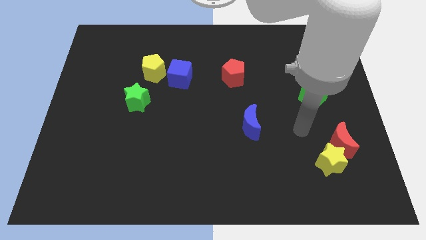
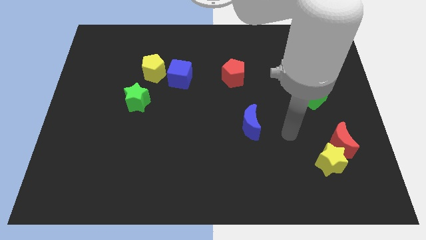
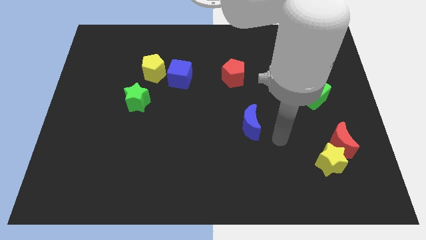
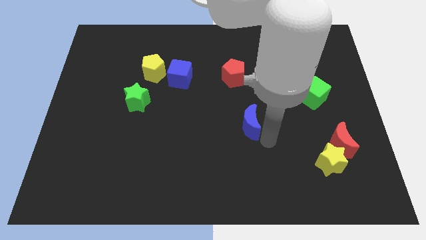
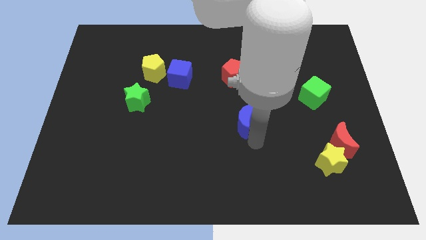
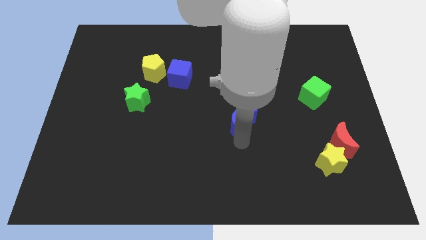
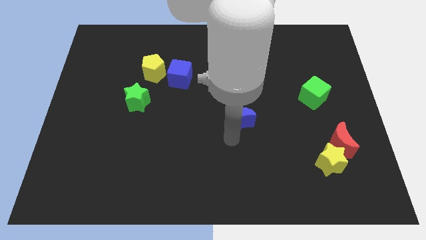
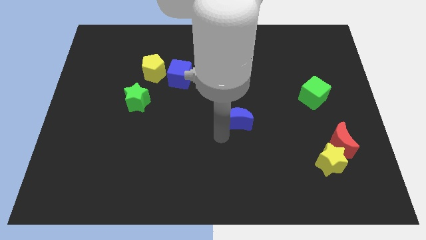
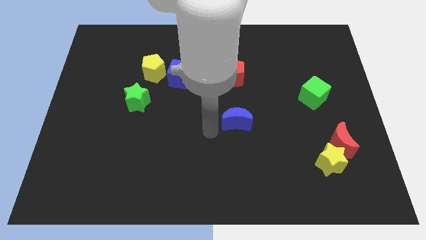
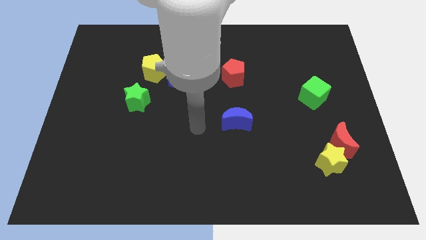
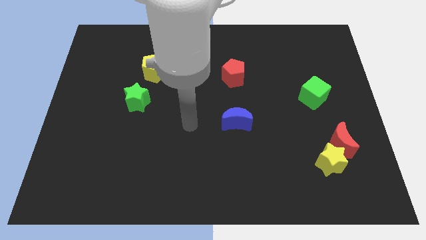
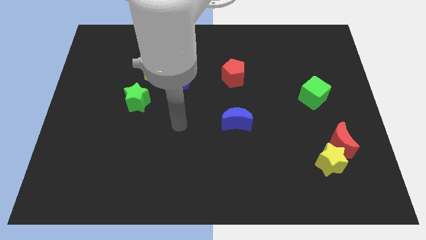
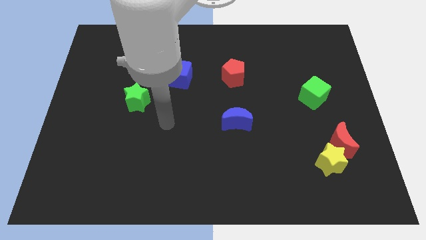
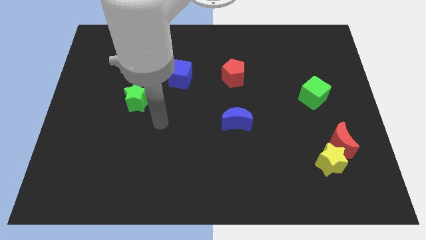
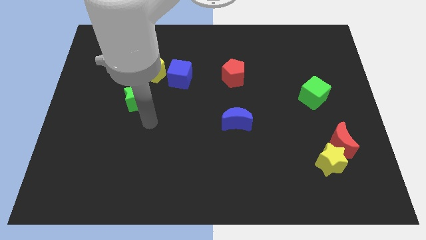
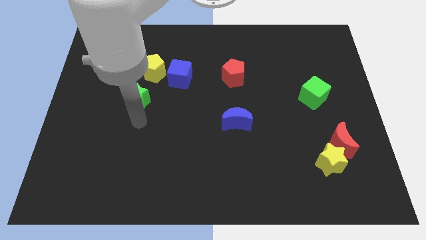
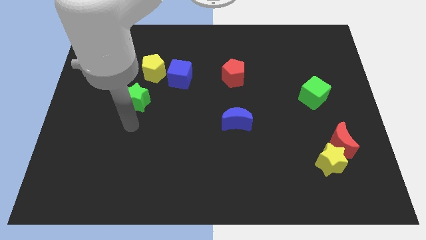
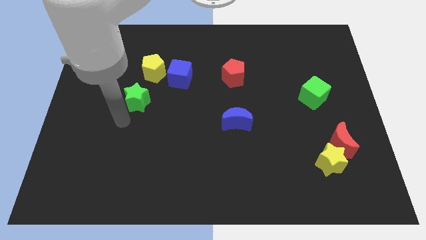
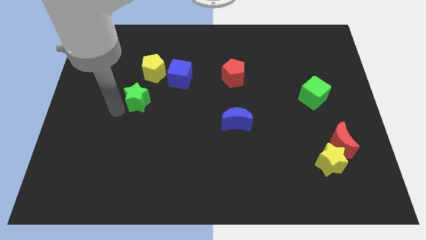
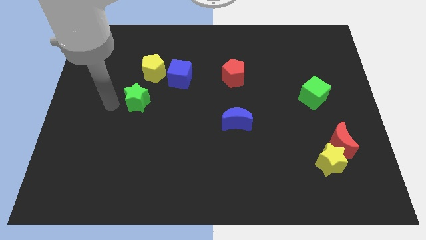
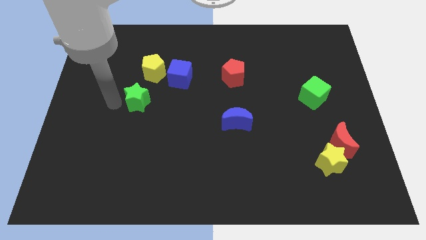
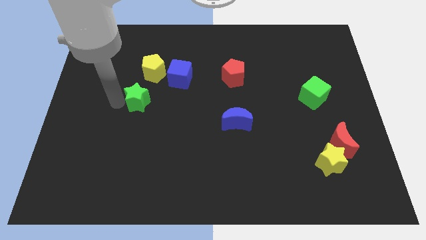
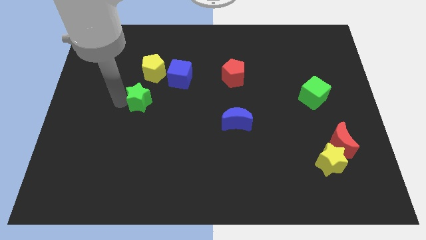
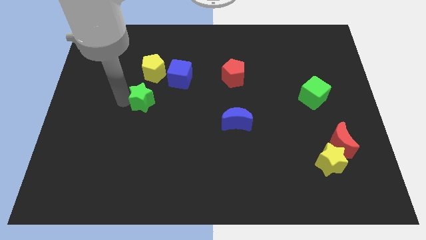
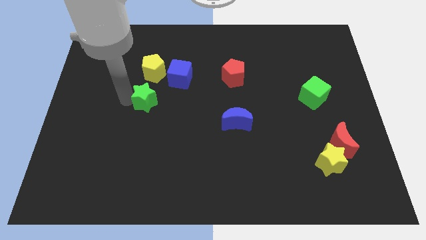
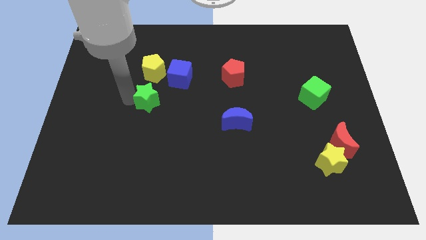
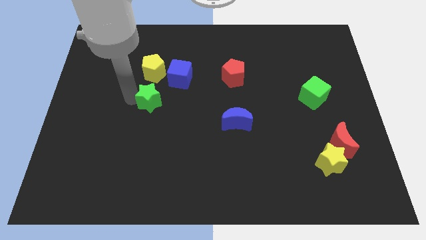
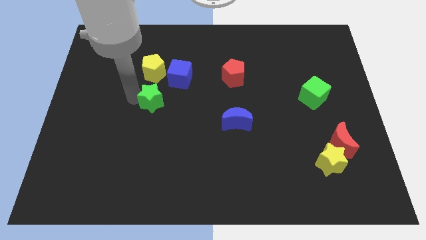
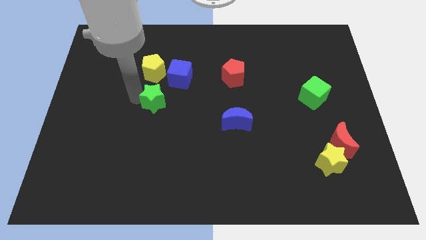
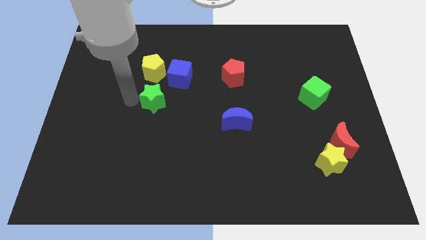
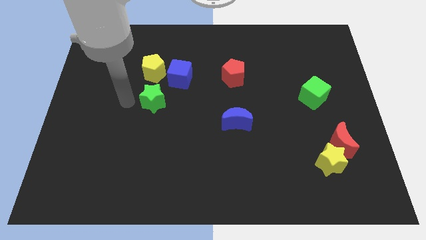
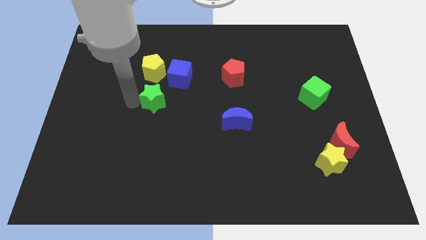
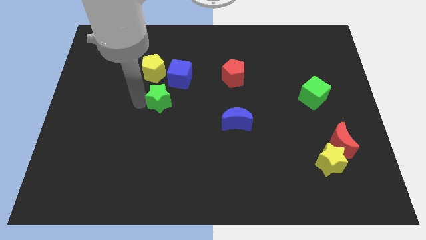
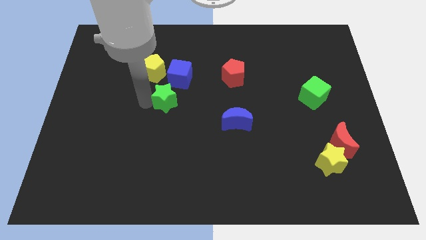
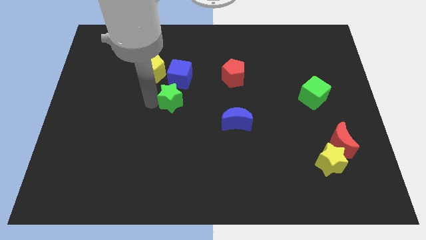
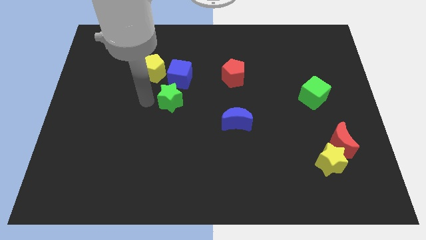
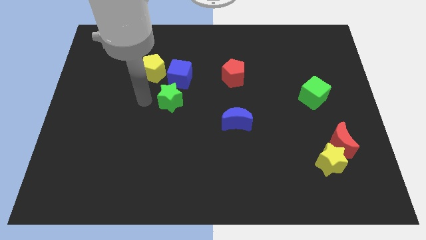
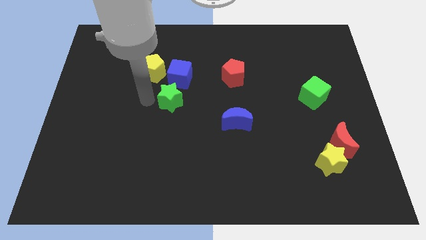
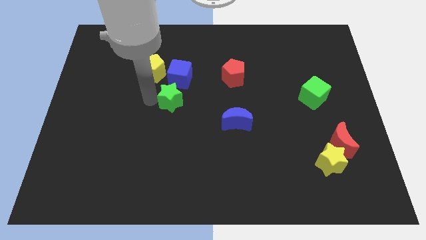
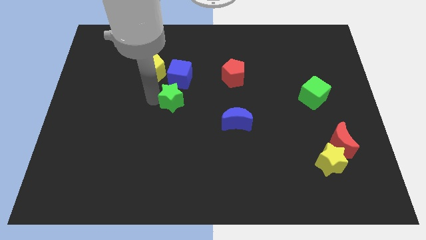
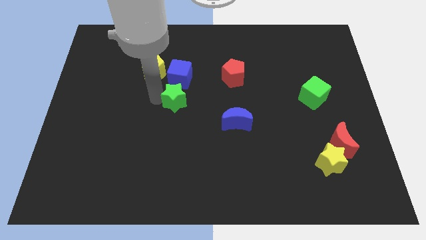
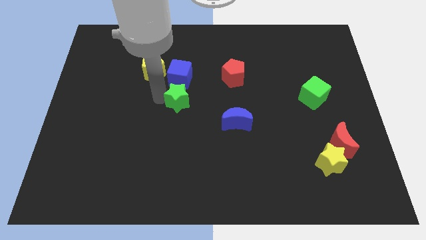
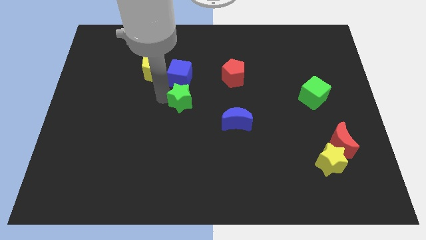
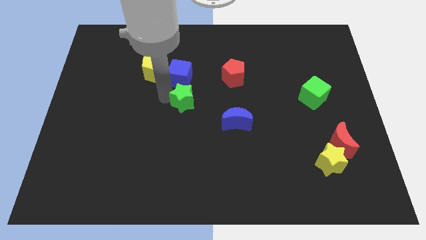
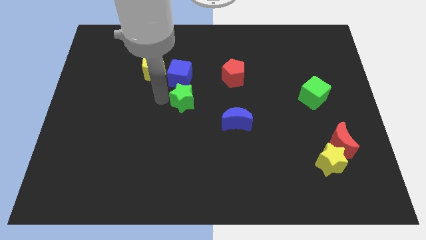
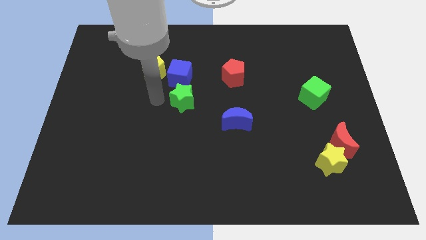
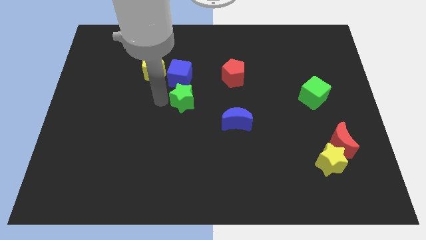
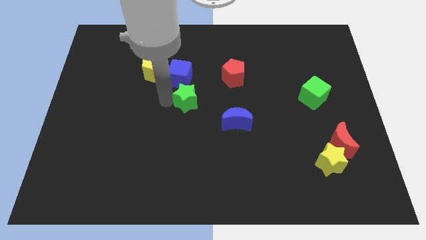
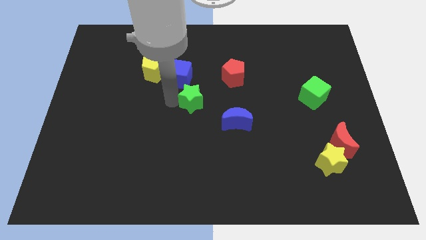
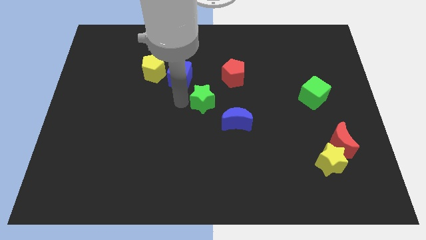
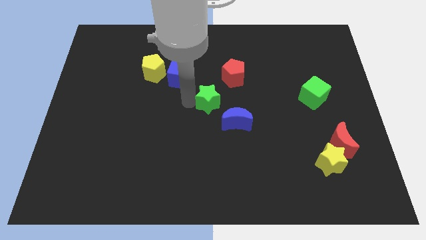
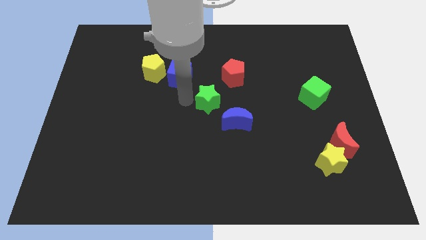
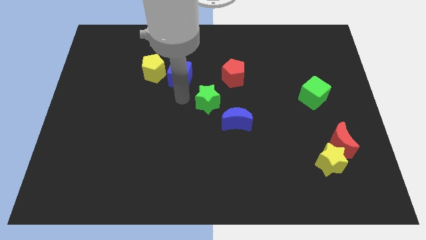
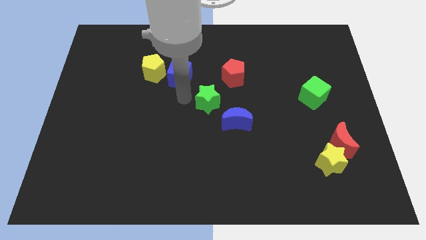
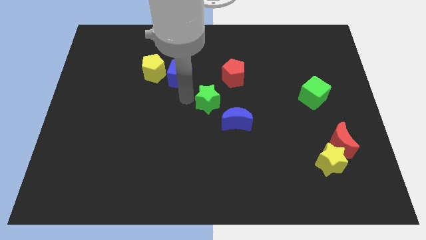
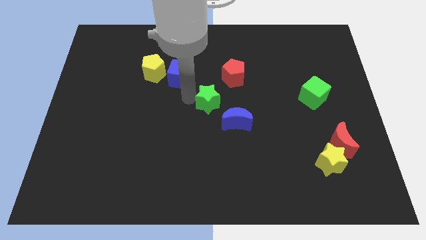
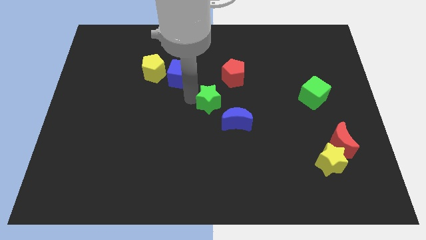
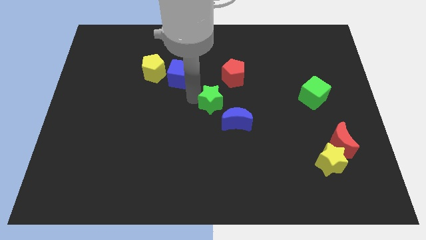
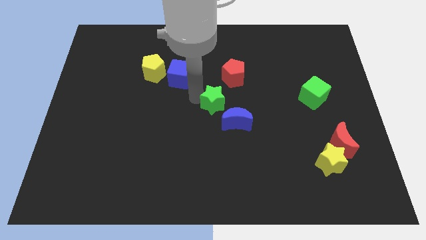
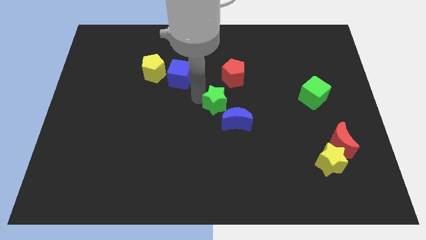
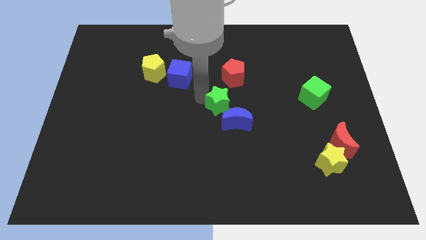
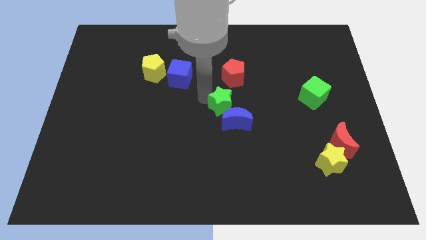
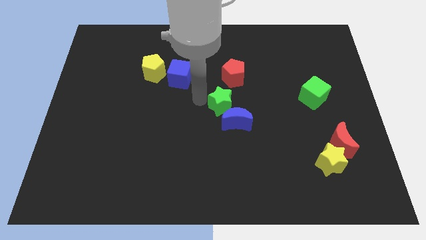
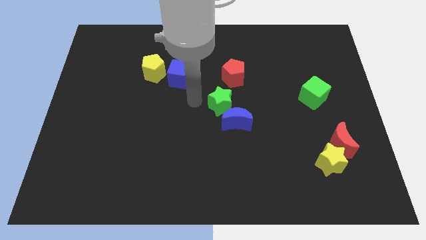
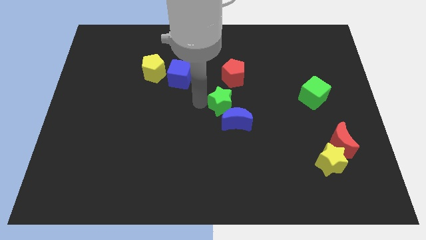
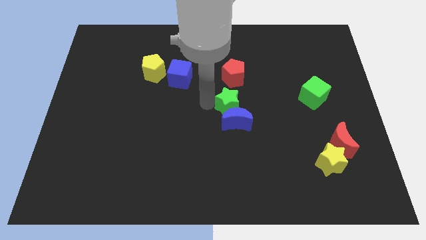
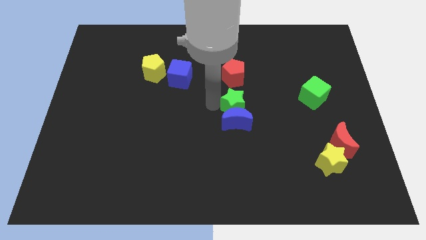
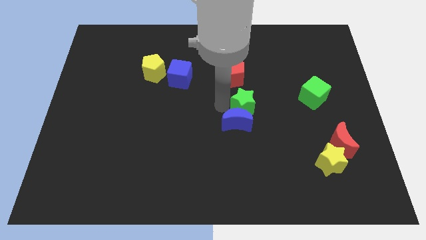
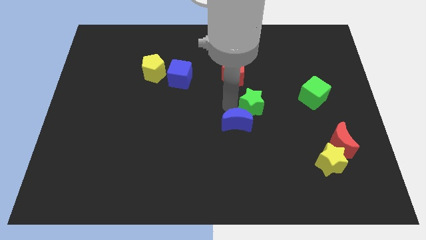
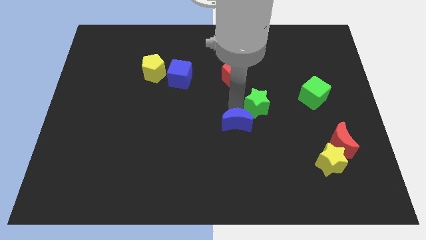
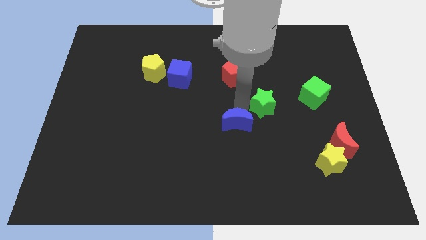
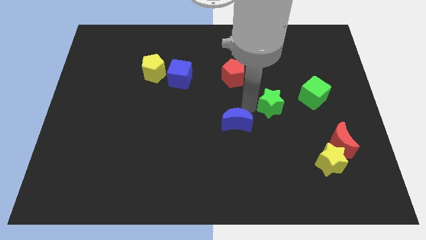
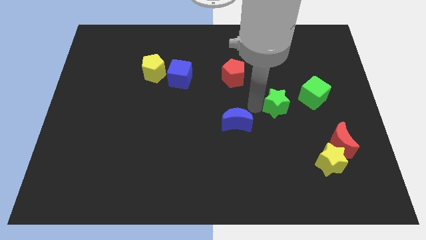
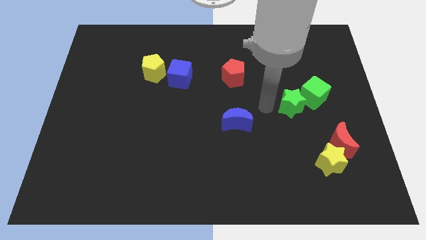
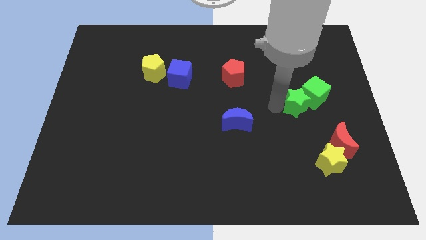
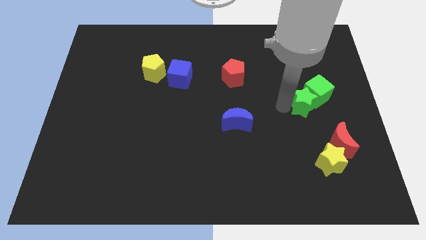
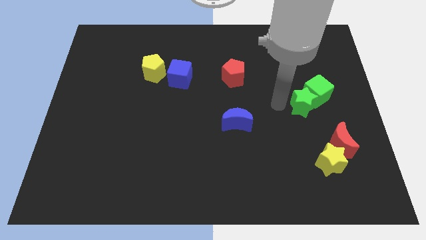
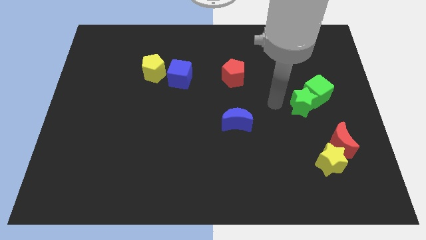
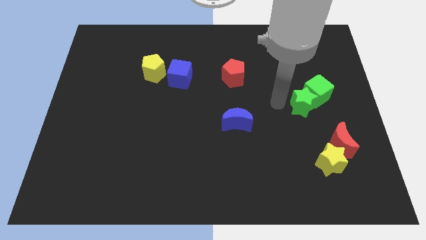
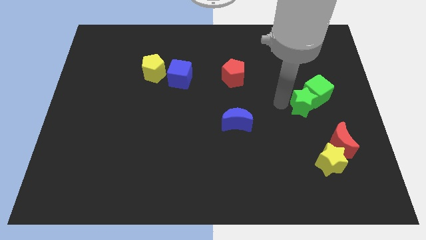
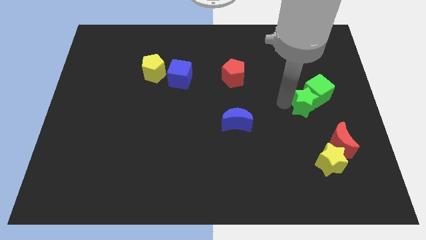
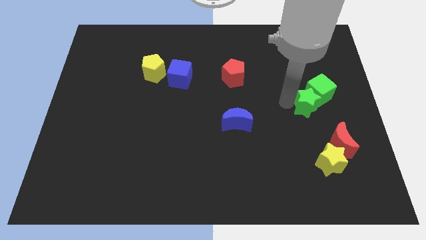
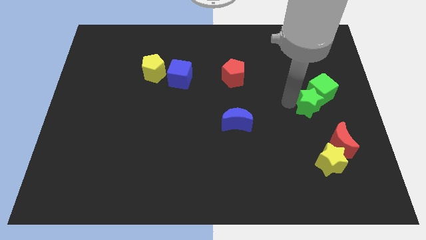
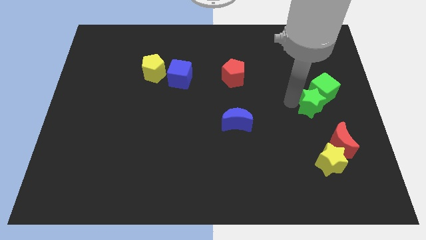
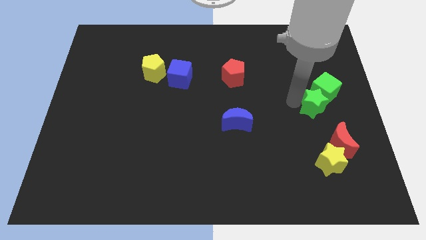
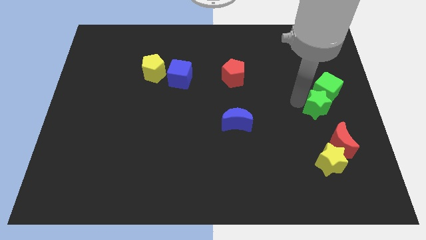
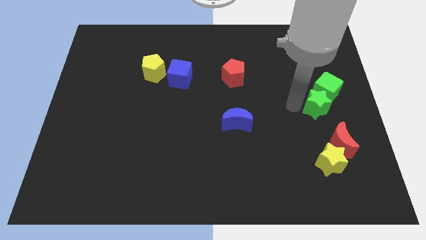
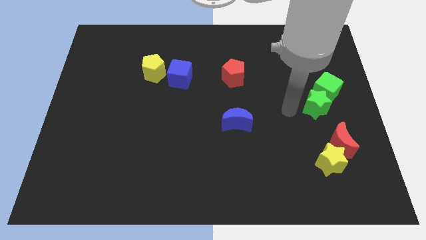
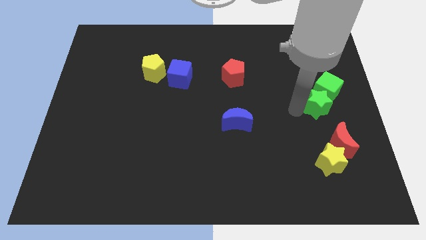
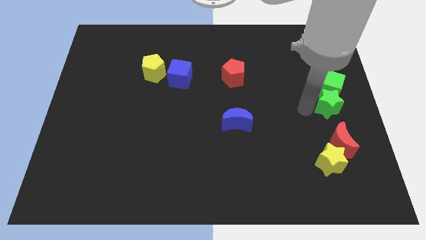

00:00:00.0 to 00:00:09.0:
put the green star to the right side
